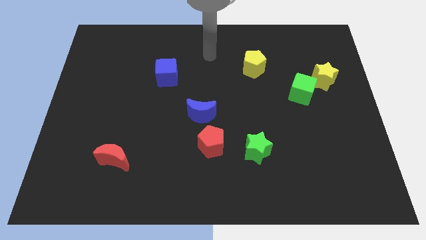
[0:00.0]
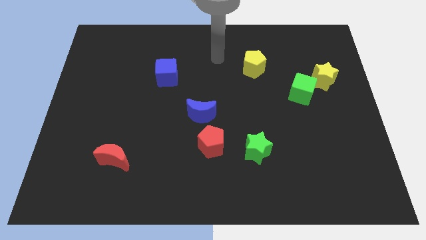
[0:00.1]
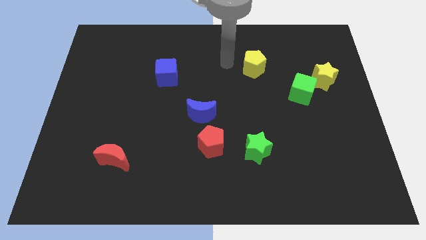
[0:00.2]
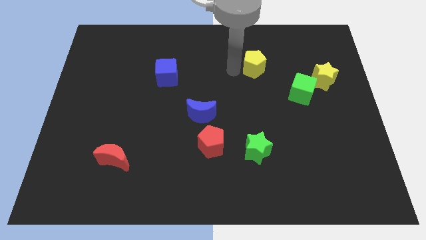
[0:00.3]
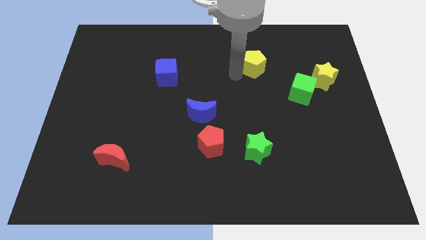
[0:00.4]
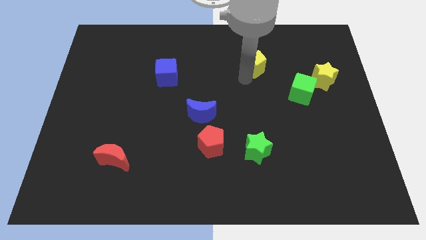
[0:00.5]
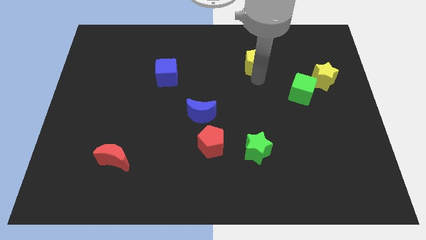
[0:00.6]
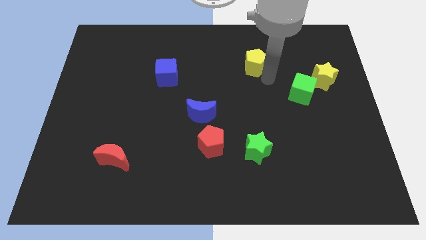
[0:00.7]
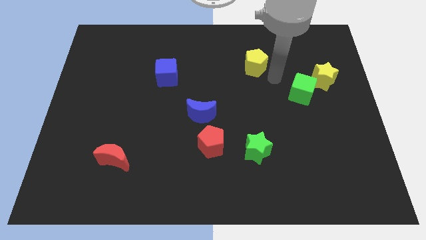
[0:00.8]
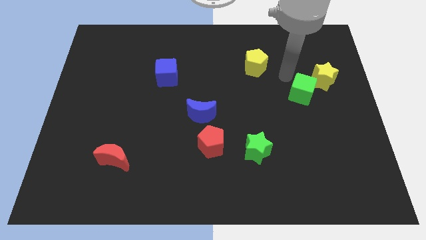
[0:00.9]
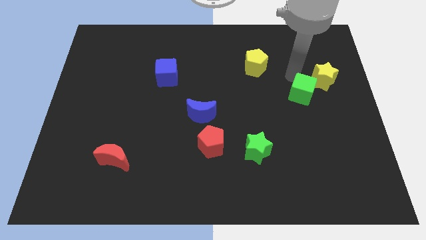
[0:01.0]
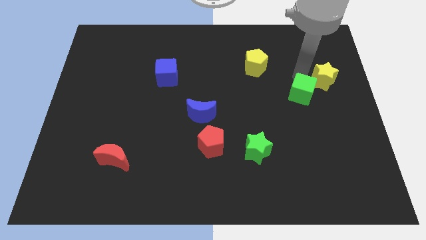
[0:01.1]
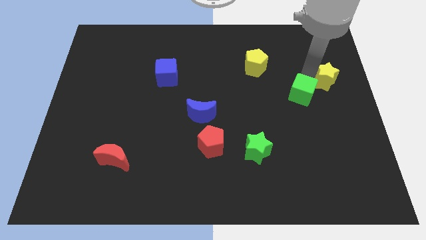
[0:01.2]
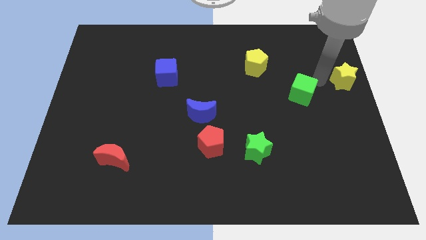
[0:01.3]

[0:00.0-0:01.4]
move the green cube away from the yellow star

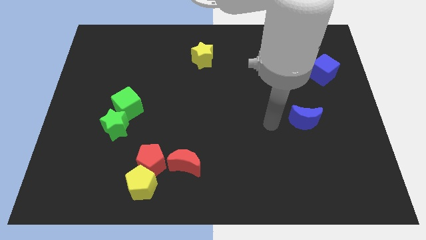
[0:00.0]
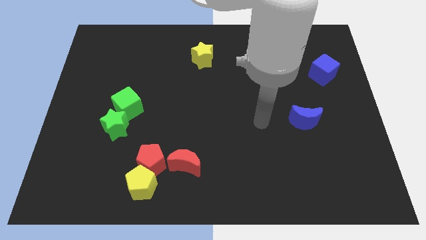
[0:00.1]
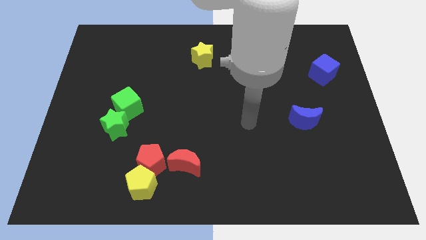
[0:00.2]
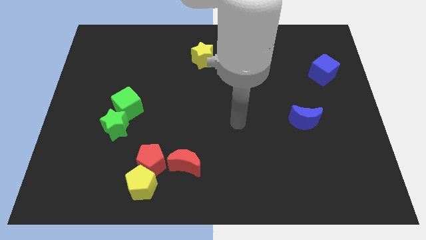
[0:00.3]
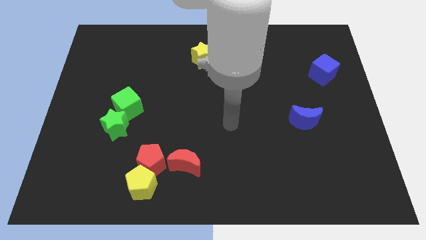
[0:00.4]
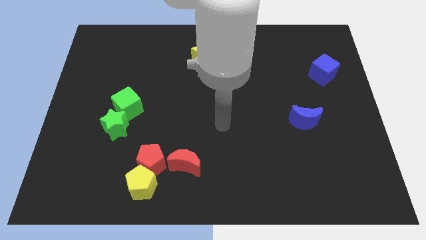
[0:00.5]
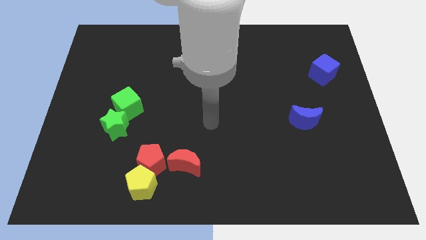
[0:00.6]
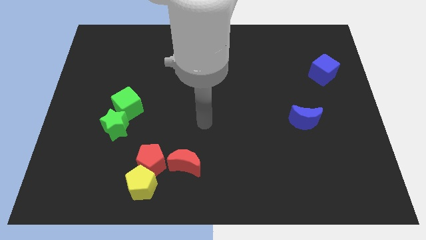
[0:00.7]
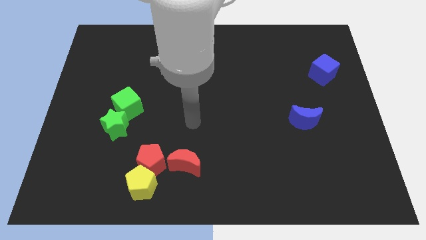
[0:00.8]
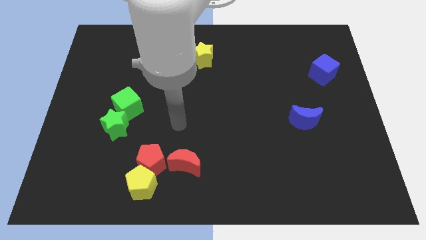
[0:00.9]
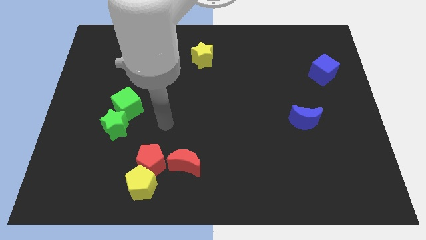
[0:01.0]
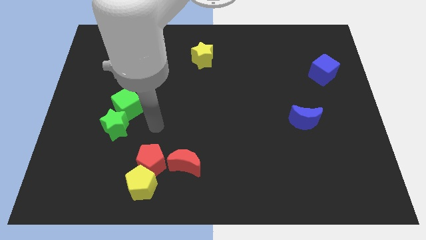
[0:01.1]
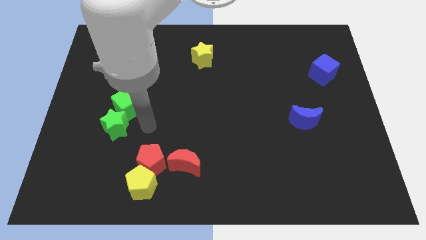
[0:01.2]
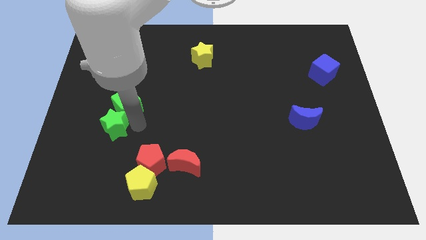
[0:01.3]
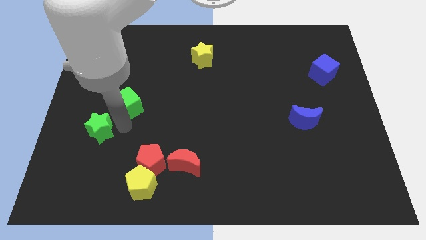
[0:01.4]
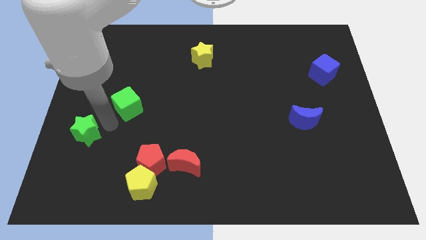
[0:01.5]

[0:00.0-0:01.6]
pull the green cube apart from the green star

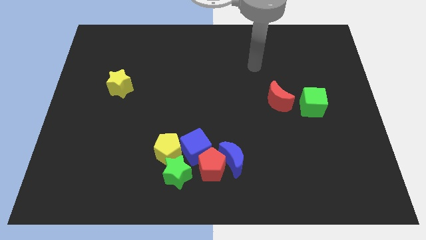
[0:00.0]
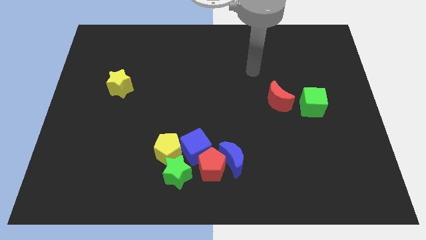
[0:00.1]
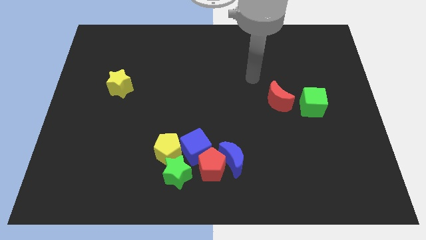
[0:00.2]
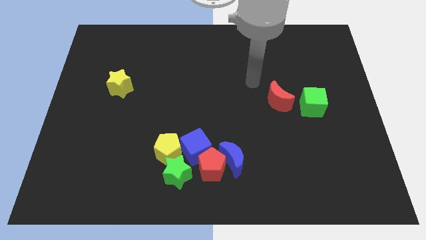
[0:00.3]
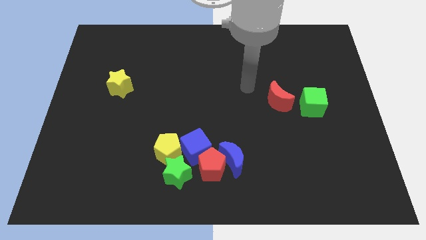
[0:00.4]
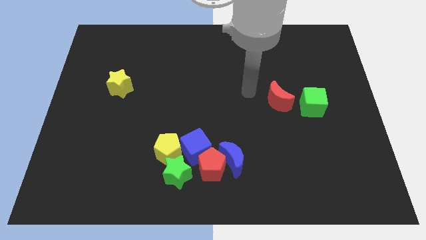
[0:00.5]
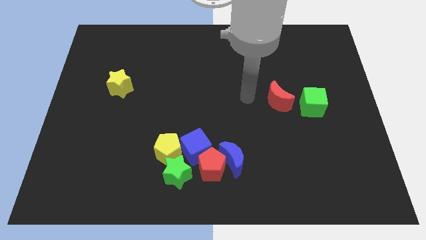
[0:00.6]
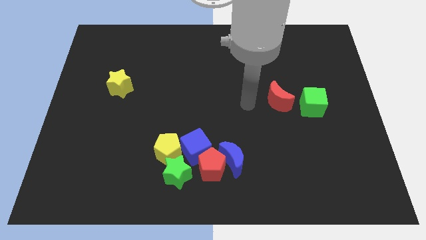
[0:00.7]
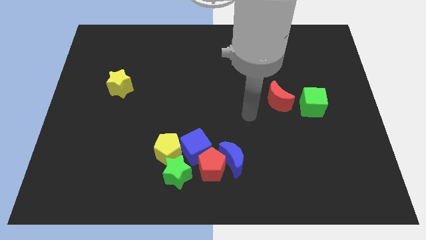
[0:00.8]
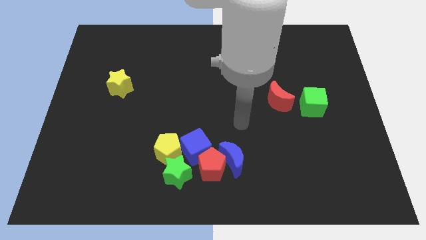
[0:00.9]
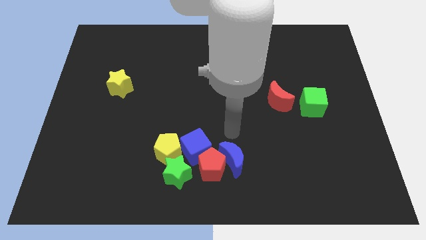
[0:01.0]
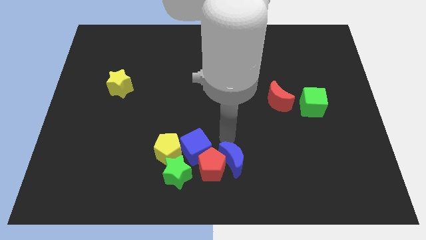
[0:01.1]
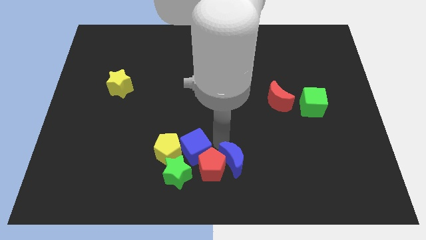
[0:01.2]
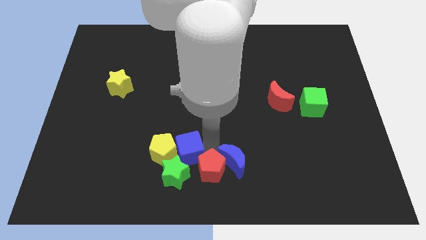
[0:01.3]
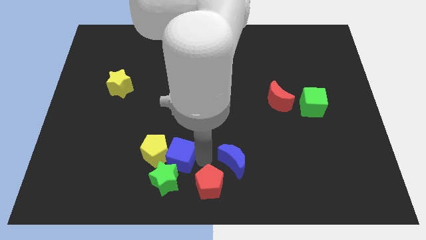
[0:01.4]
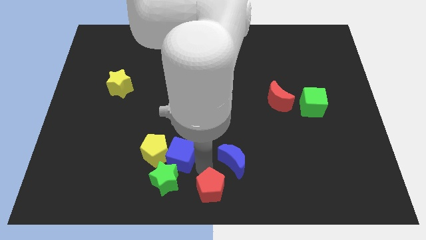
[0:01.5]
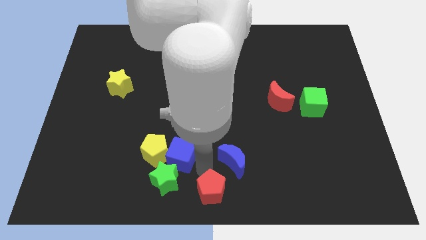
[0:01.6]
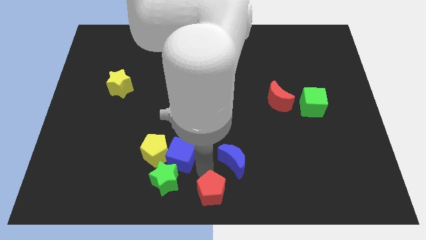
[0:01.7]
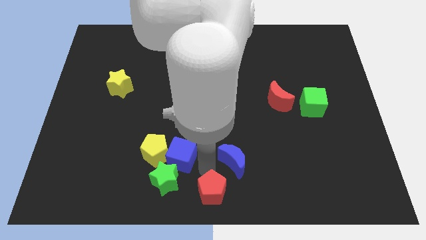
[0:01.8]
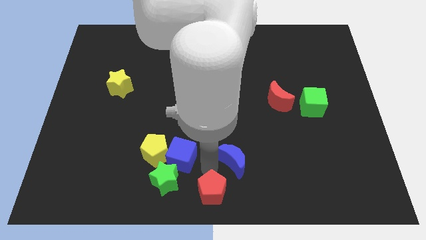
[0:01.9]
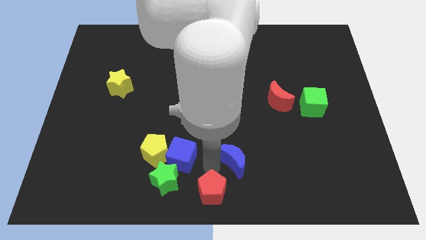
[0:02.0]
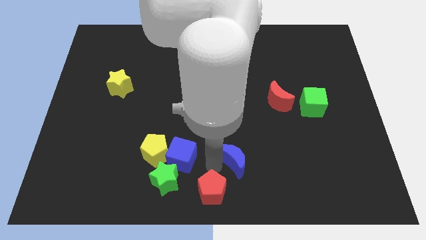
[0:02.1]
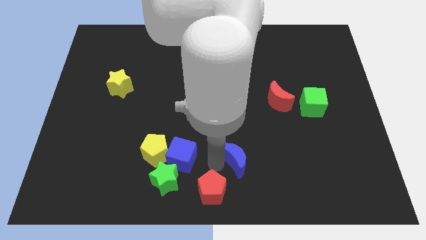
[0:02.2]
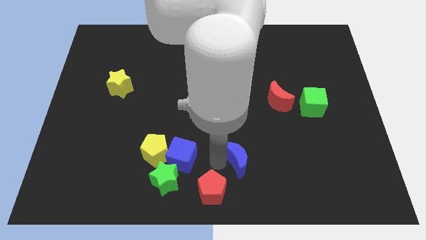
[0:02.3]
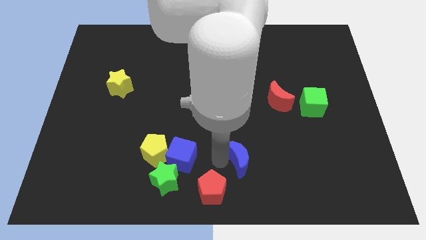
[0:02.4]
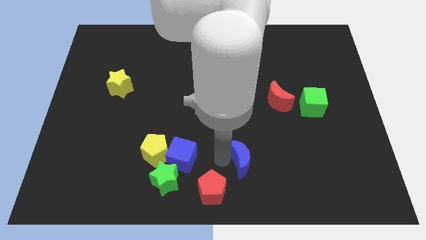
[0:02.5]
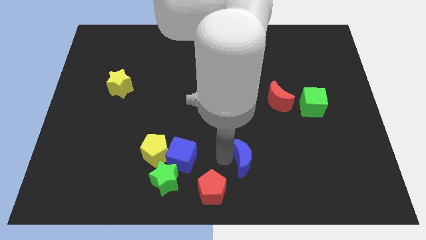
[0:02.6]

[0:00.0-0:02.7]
separate the blue moon from the red pentagon and blue cube

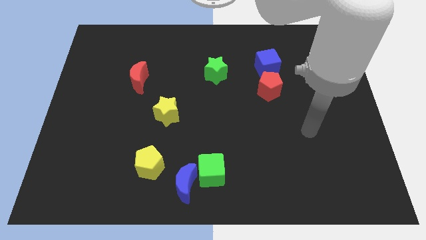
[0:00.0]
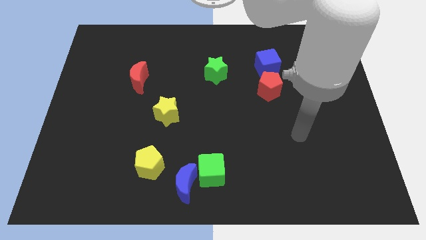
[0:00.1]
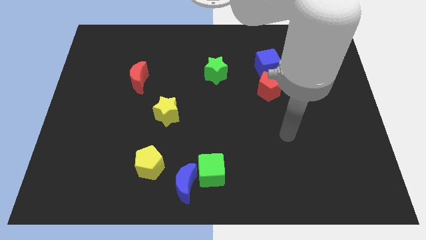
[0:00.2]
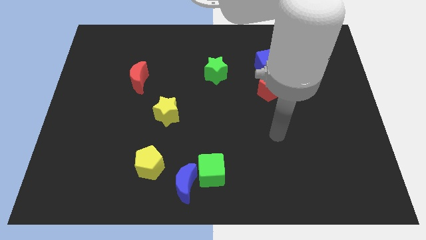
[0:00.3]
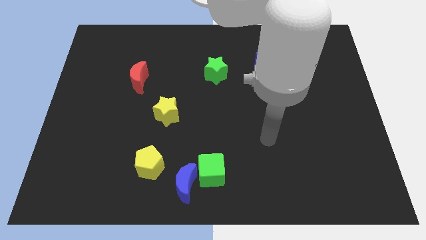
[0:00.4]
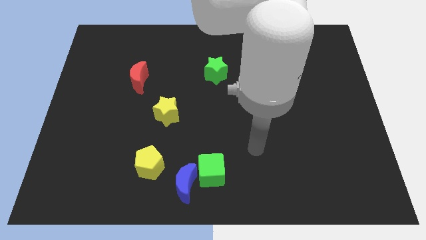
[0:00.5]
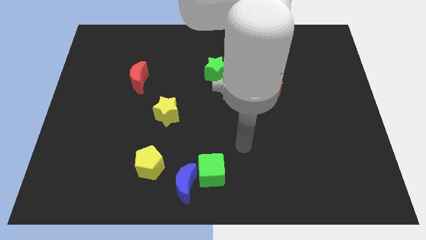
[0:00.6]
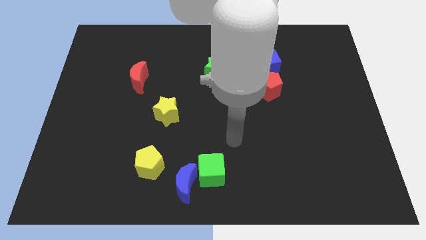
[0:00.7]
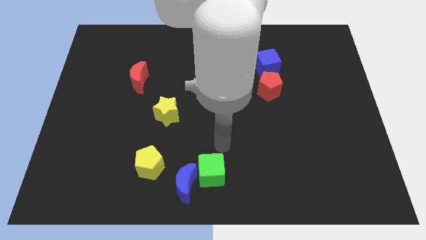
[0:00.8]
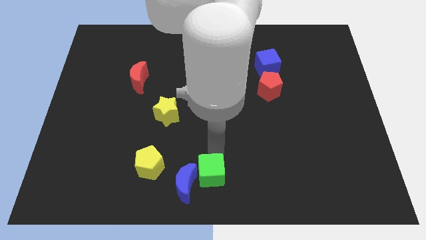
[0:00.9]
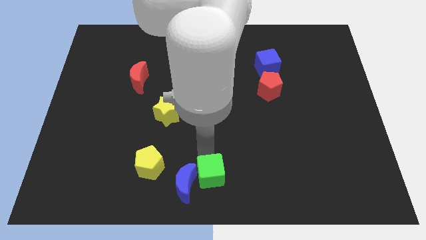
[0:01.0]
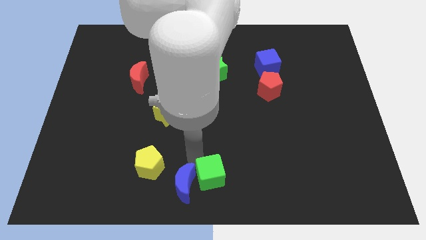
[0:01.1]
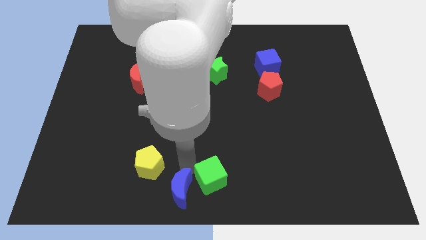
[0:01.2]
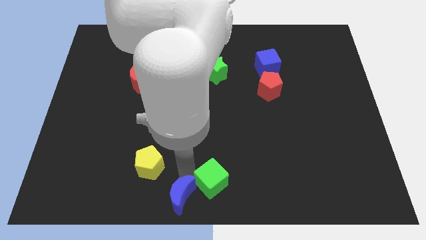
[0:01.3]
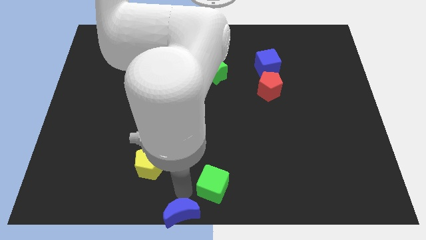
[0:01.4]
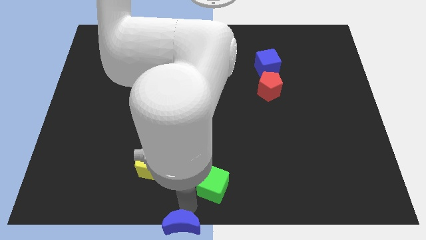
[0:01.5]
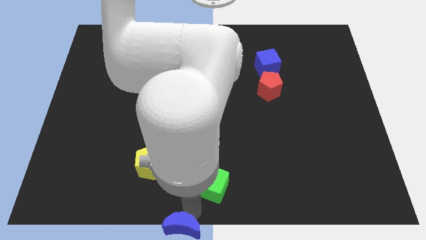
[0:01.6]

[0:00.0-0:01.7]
separate the green cube from the blue moon

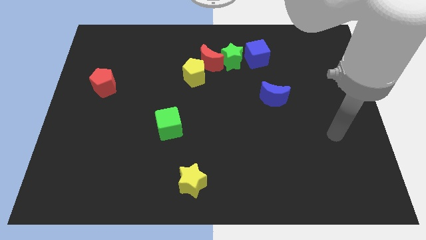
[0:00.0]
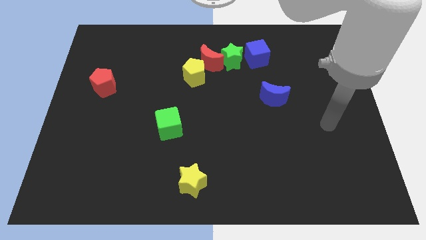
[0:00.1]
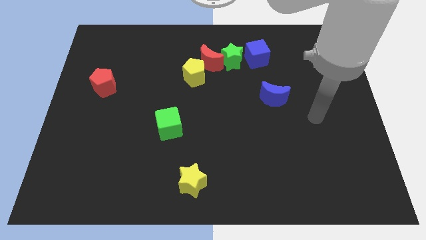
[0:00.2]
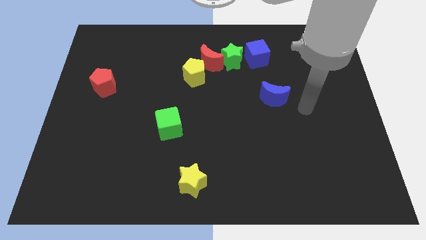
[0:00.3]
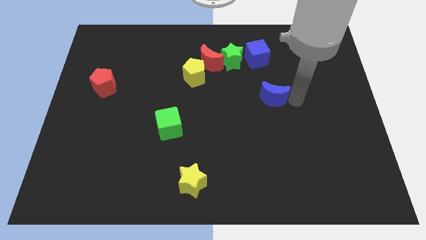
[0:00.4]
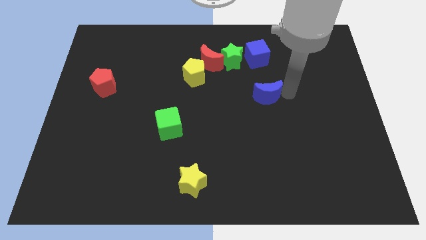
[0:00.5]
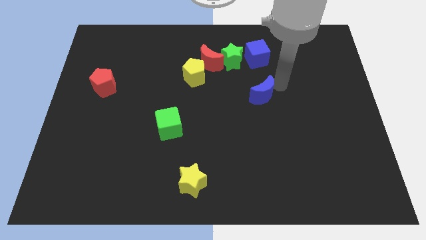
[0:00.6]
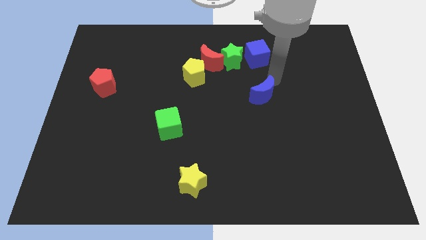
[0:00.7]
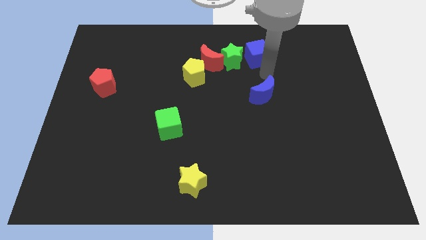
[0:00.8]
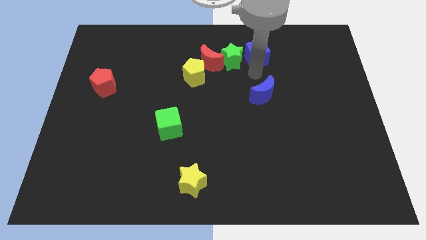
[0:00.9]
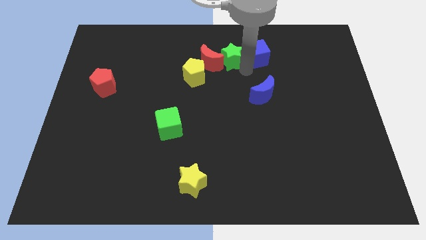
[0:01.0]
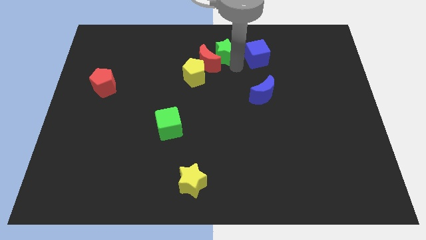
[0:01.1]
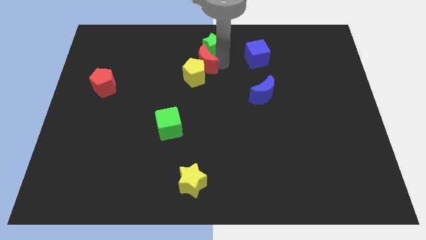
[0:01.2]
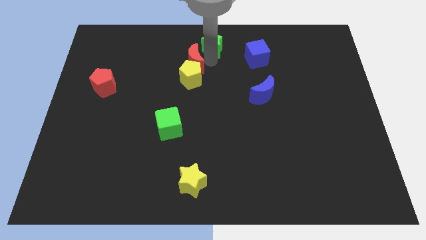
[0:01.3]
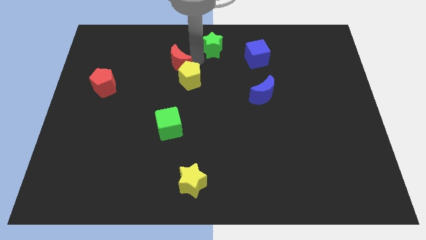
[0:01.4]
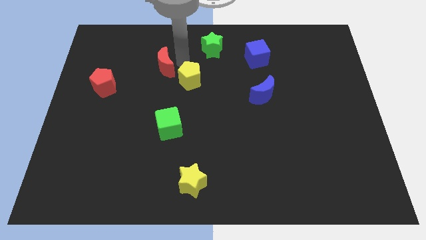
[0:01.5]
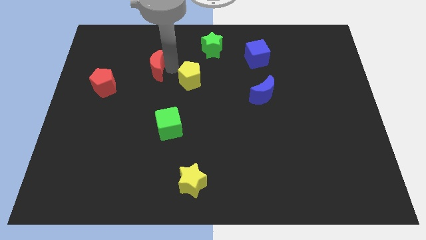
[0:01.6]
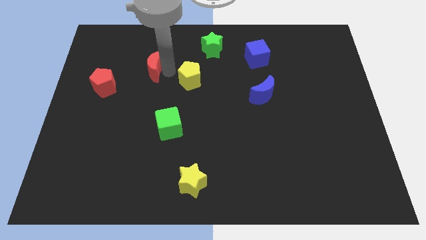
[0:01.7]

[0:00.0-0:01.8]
separate the yellow pentagon from the red moon
